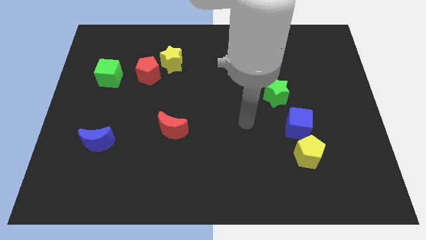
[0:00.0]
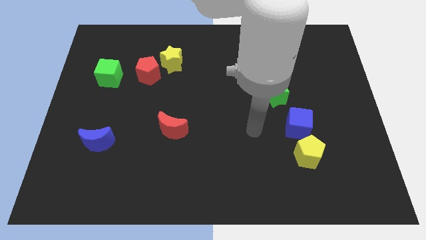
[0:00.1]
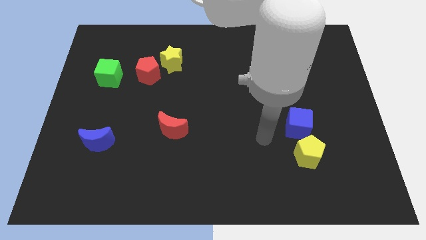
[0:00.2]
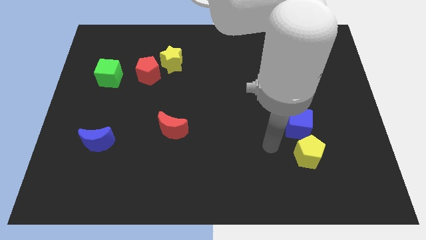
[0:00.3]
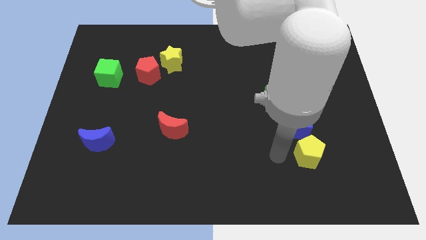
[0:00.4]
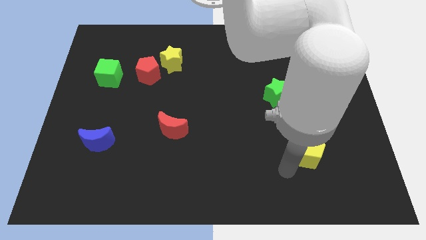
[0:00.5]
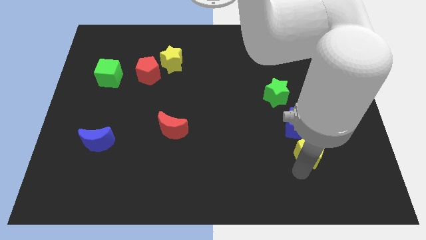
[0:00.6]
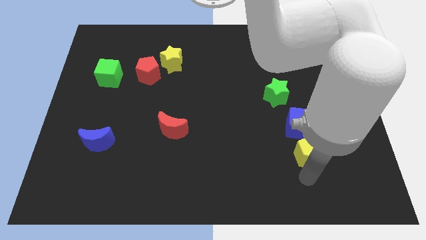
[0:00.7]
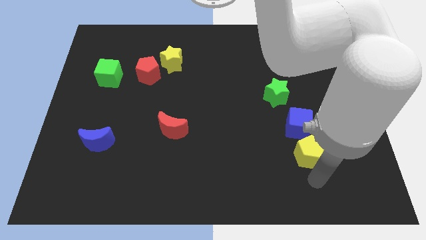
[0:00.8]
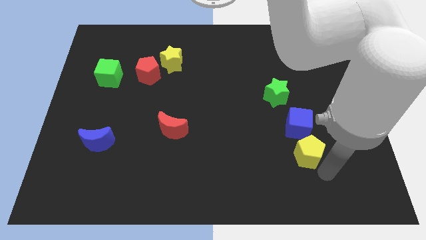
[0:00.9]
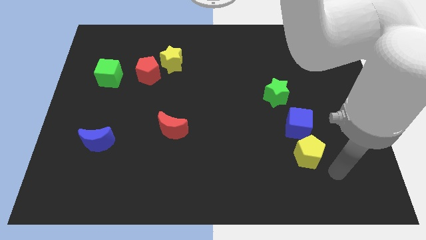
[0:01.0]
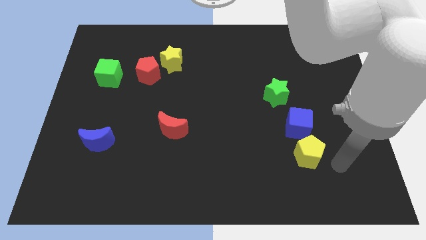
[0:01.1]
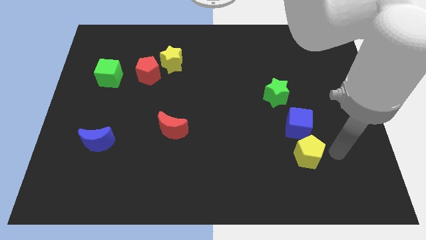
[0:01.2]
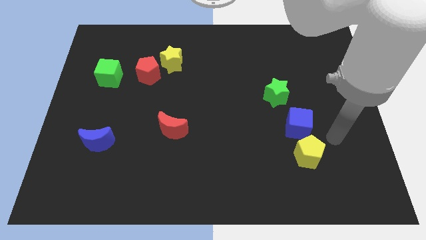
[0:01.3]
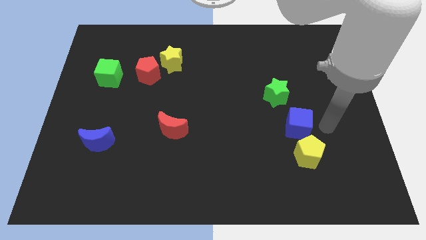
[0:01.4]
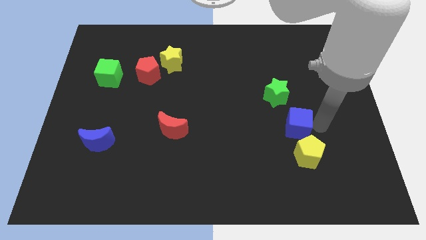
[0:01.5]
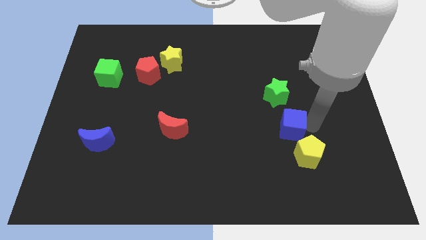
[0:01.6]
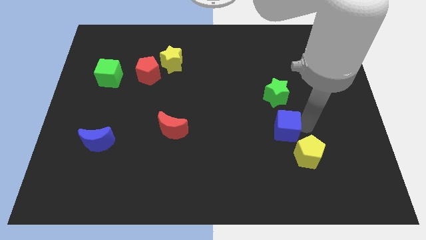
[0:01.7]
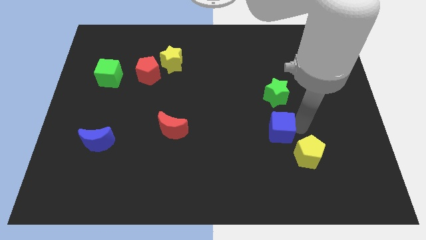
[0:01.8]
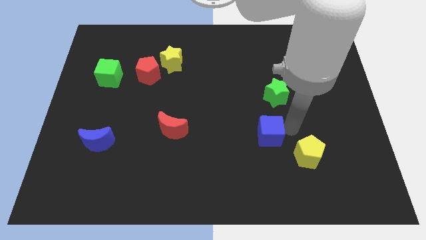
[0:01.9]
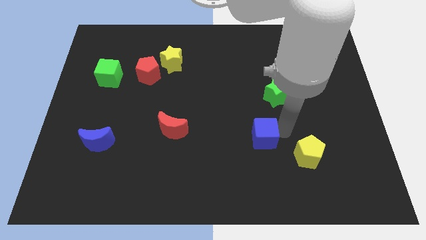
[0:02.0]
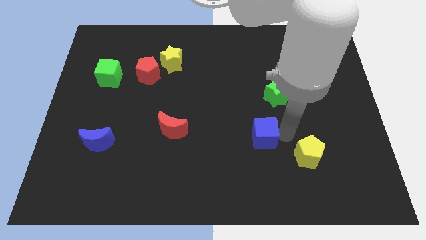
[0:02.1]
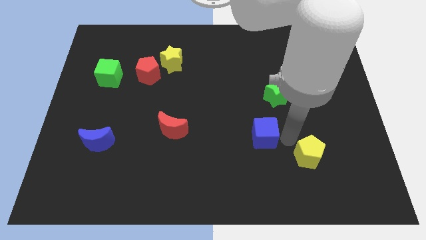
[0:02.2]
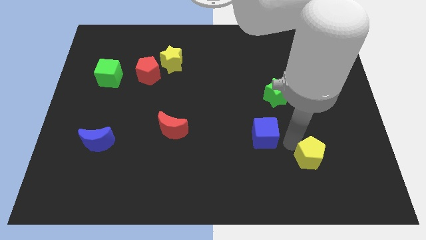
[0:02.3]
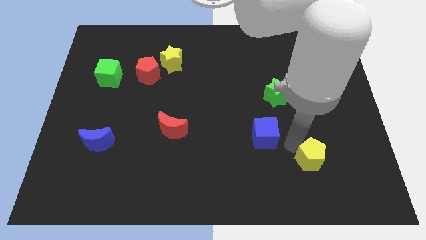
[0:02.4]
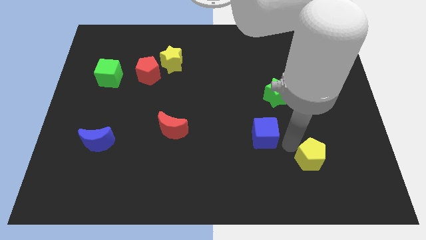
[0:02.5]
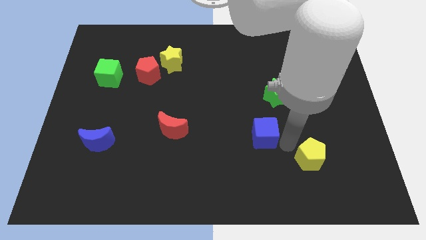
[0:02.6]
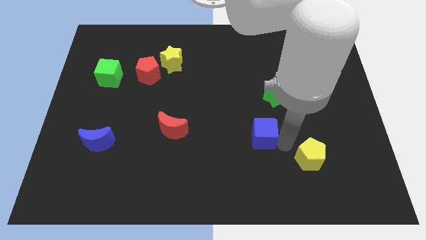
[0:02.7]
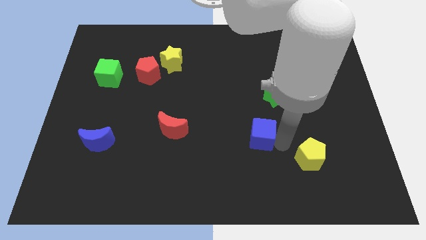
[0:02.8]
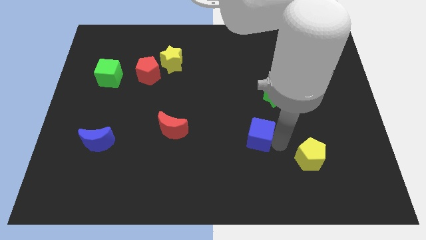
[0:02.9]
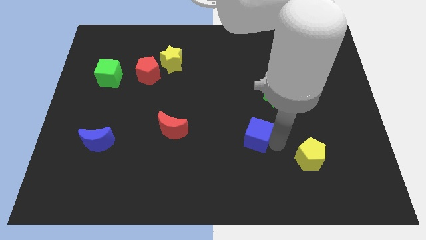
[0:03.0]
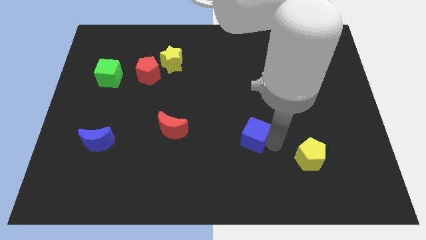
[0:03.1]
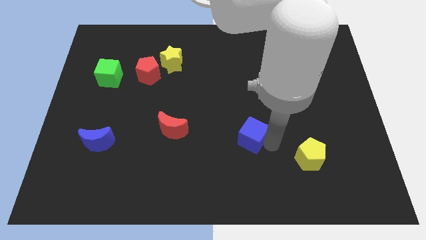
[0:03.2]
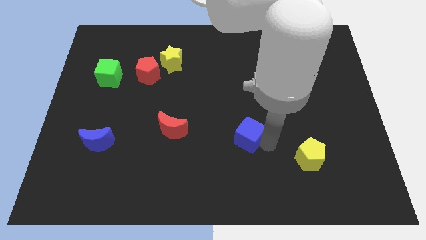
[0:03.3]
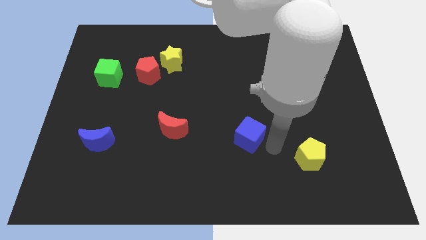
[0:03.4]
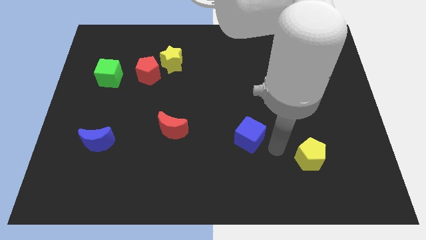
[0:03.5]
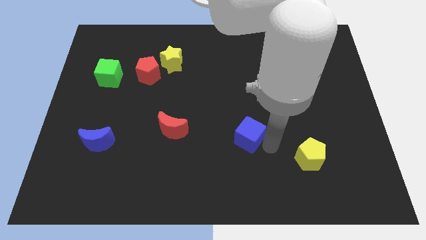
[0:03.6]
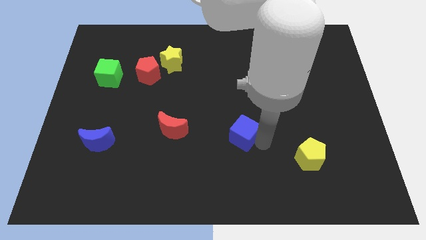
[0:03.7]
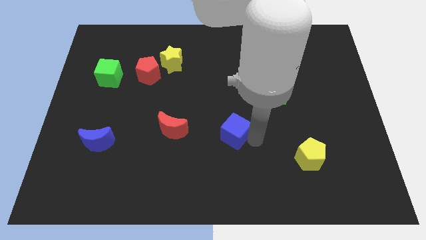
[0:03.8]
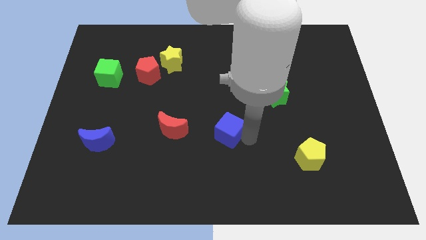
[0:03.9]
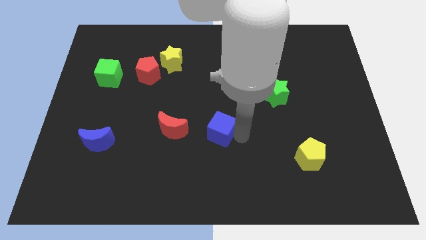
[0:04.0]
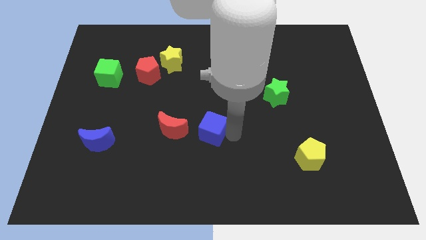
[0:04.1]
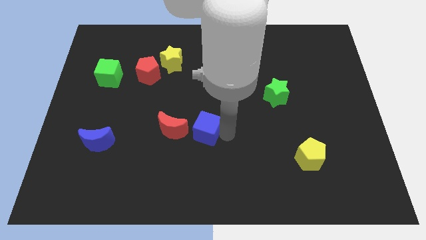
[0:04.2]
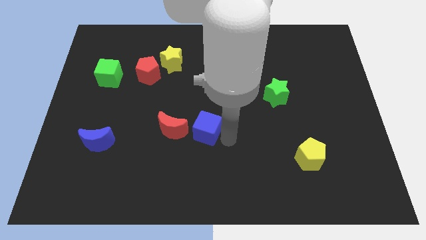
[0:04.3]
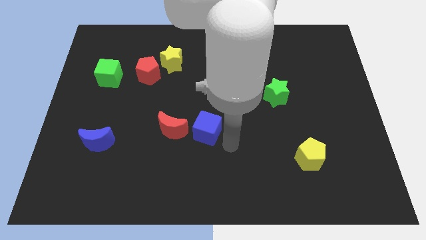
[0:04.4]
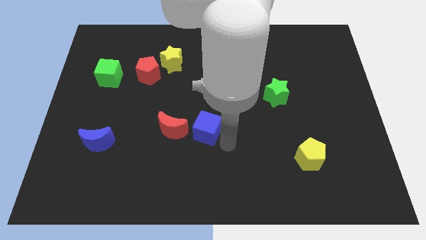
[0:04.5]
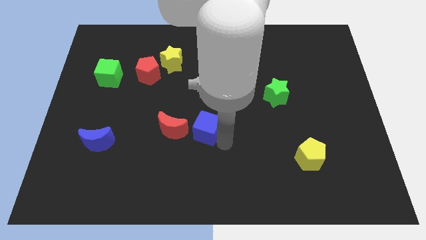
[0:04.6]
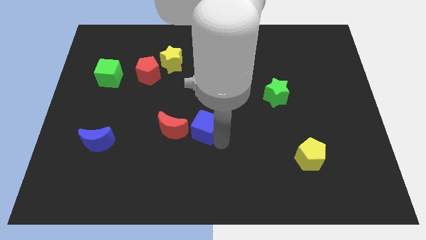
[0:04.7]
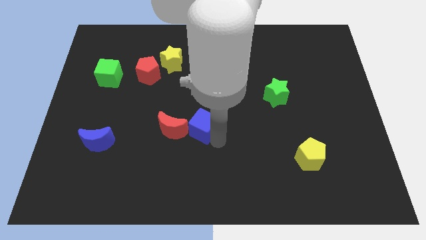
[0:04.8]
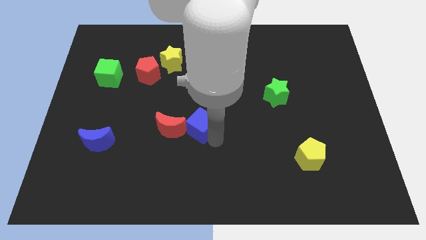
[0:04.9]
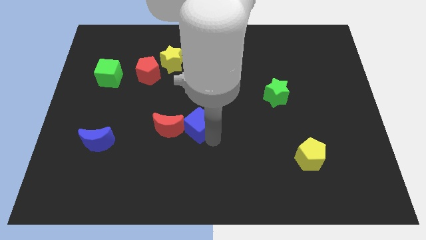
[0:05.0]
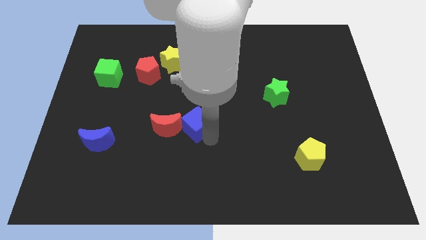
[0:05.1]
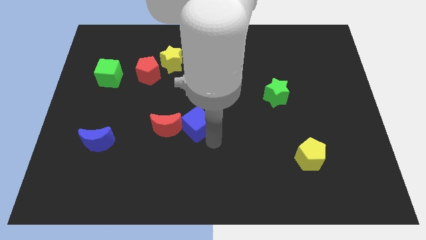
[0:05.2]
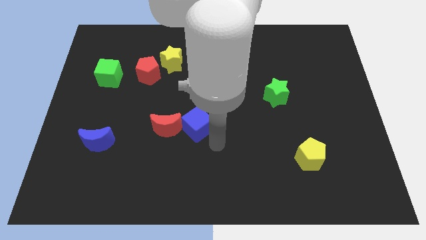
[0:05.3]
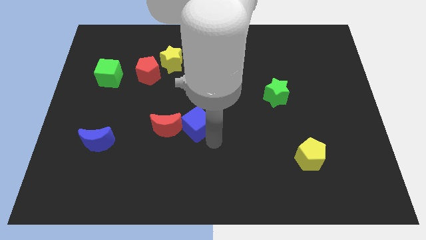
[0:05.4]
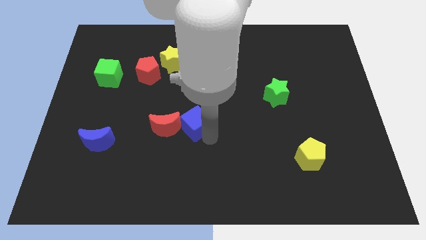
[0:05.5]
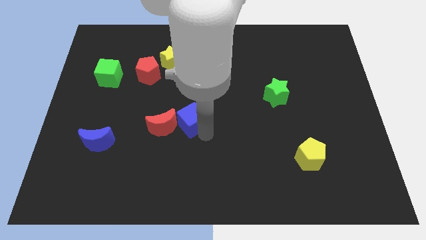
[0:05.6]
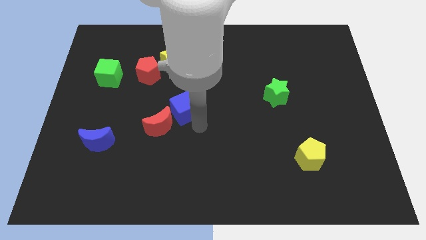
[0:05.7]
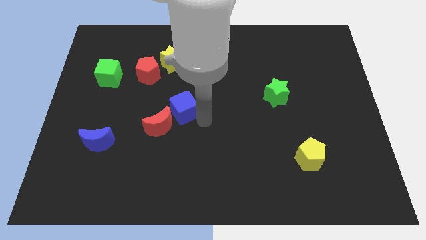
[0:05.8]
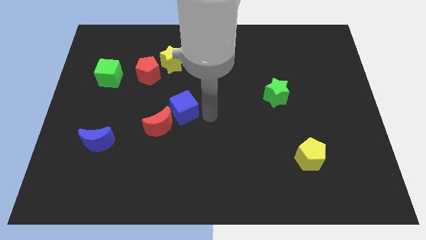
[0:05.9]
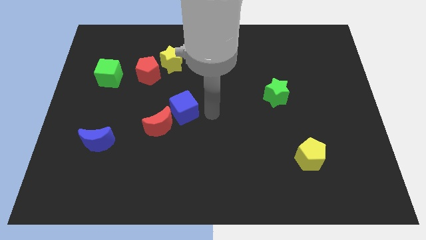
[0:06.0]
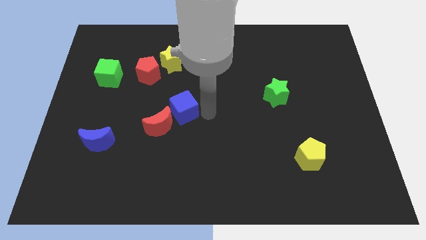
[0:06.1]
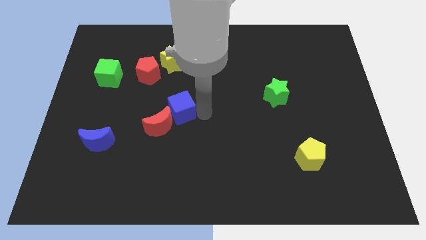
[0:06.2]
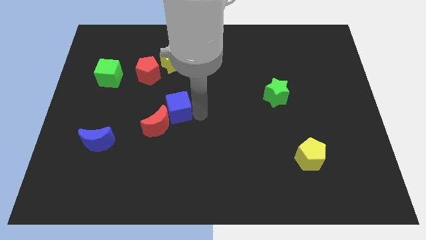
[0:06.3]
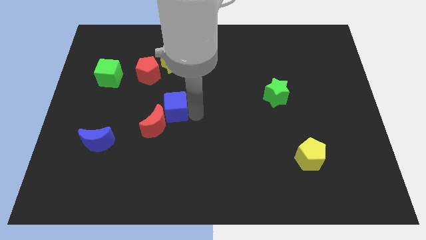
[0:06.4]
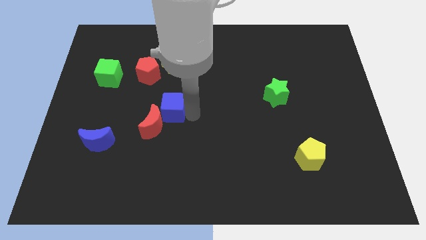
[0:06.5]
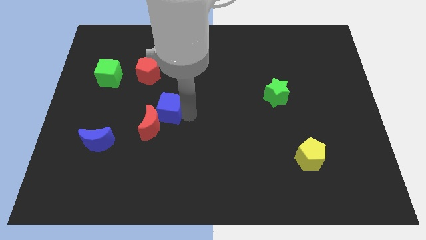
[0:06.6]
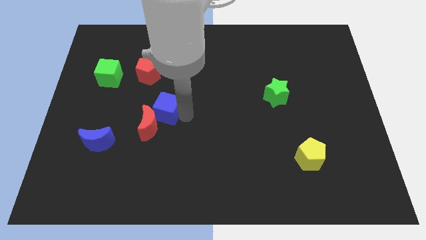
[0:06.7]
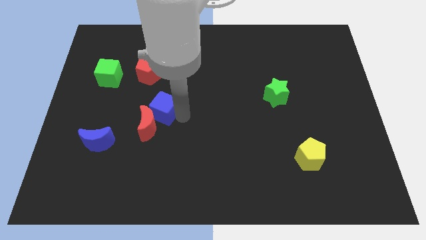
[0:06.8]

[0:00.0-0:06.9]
move the blue cube to the bottom side of the red pentagon
